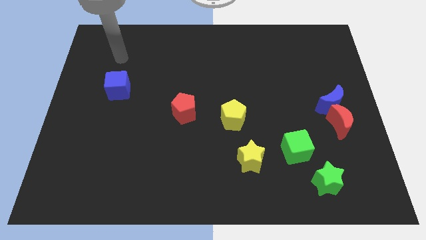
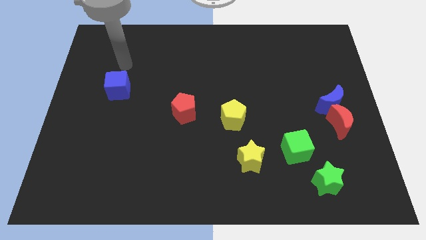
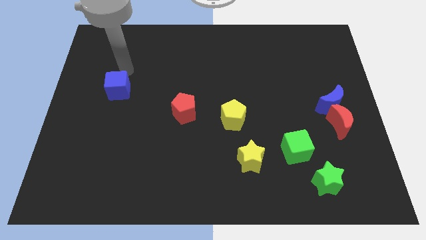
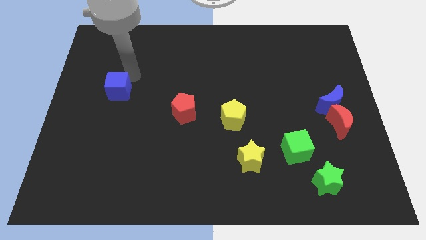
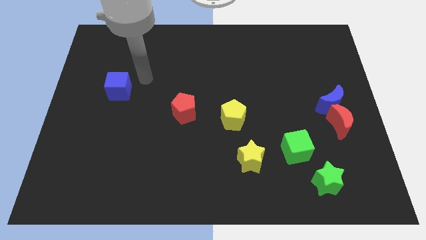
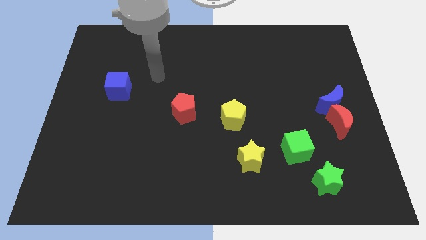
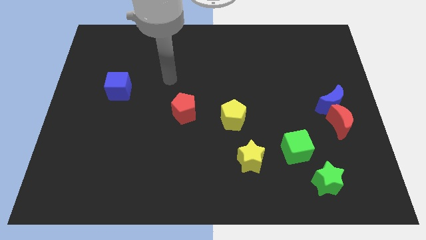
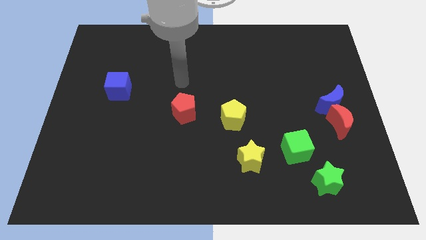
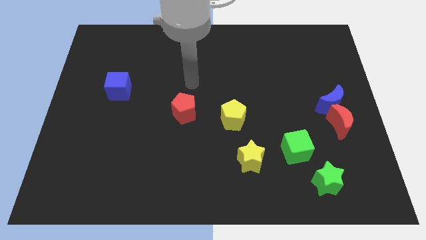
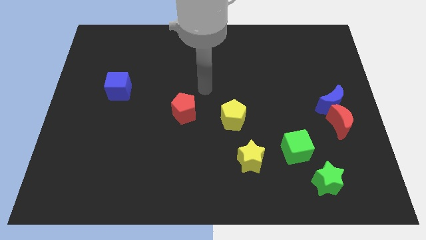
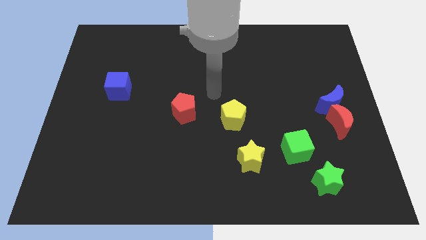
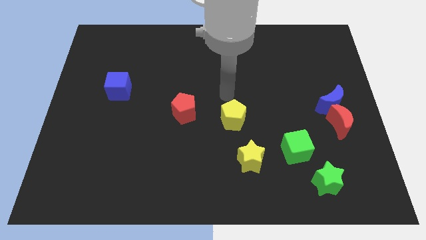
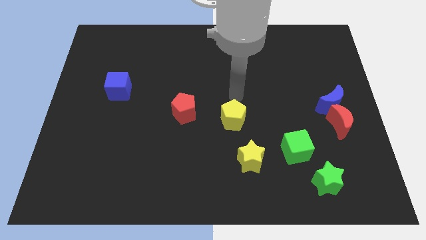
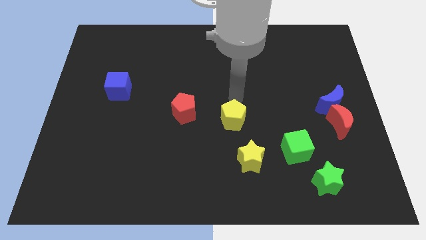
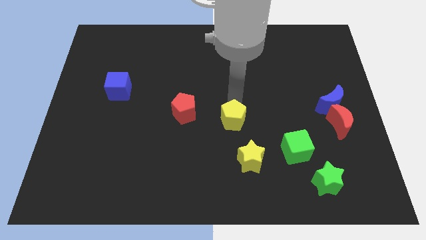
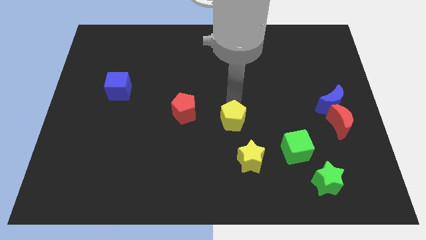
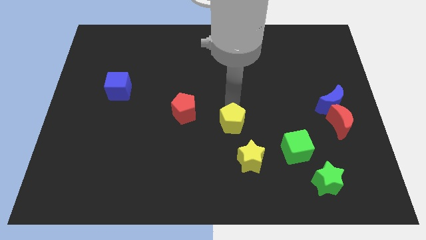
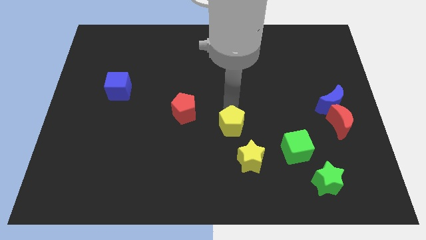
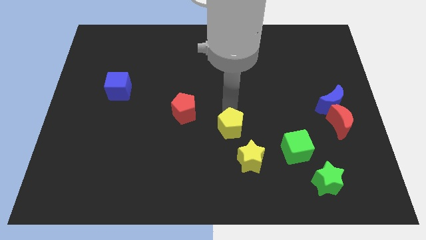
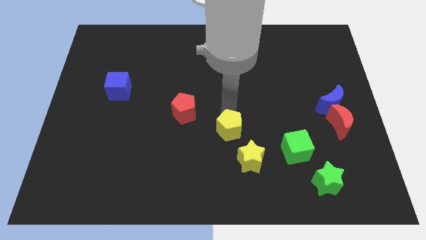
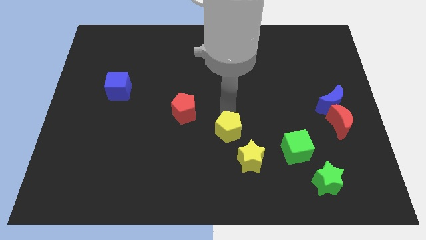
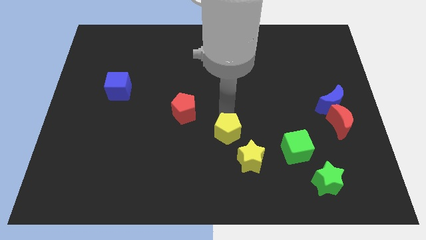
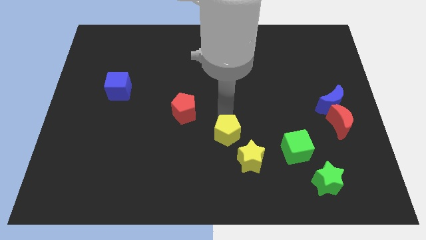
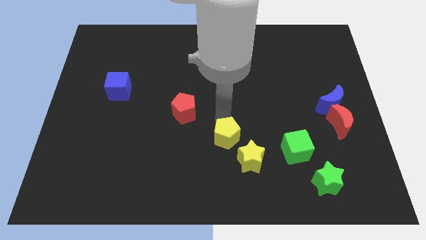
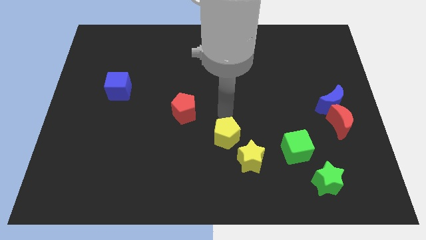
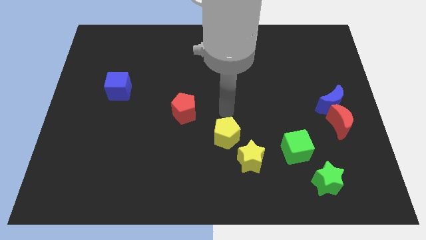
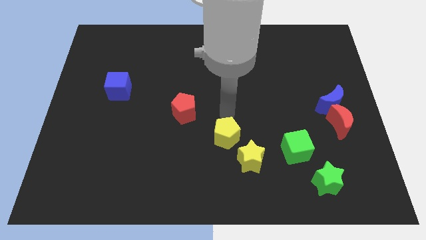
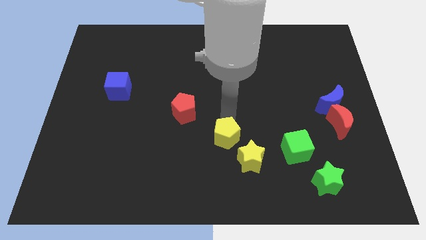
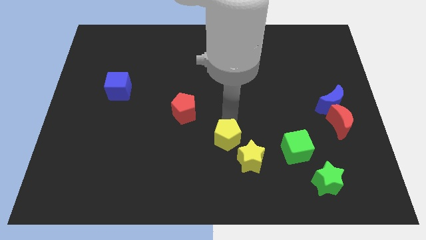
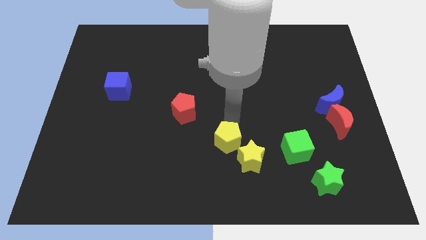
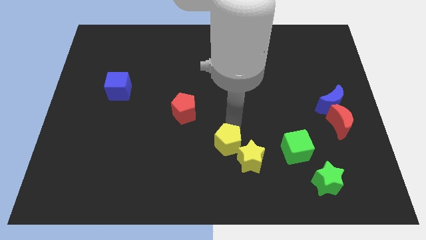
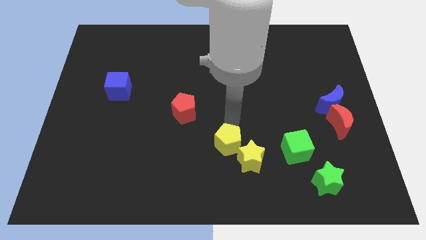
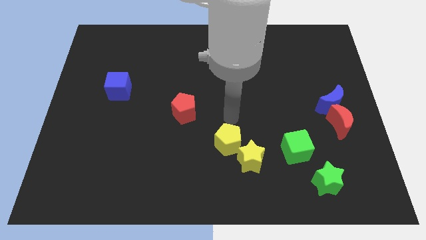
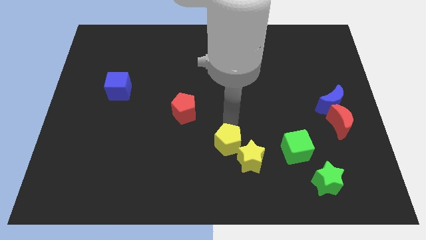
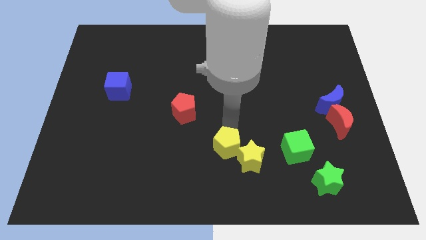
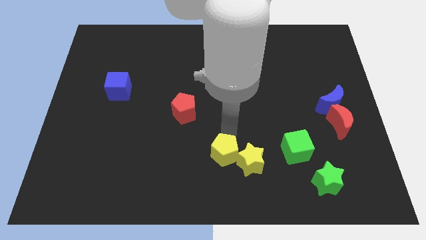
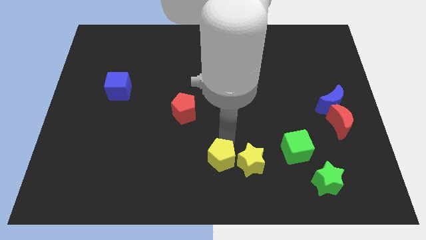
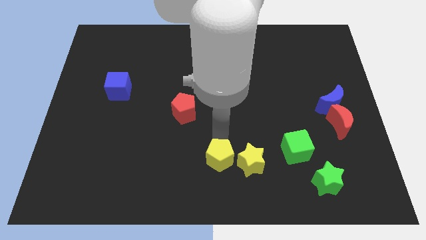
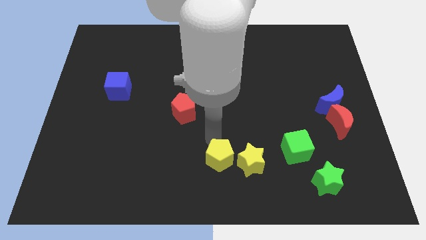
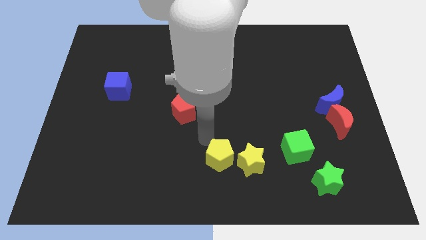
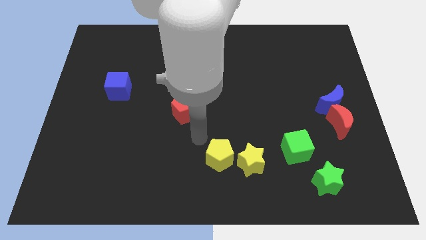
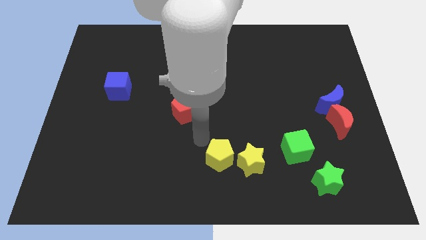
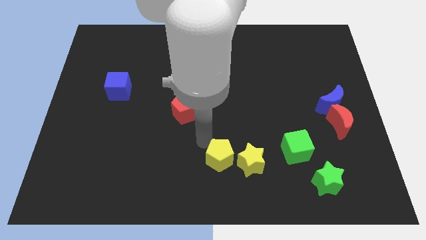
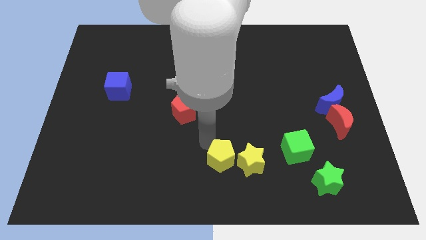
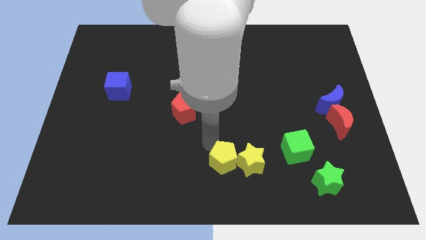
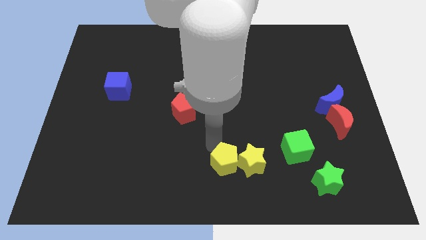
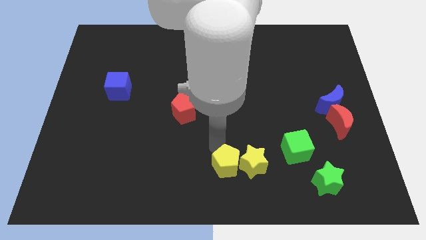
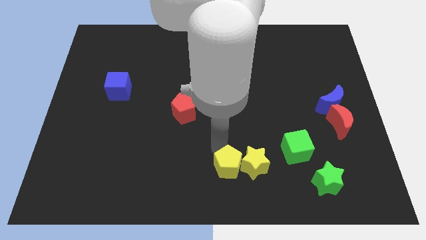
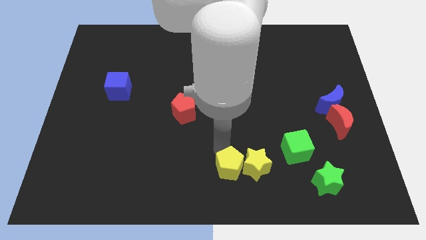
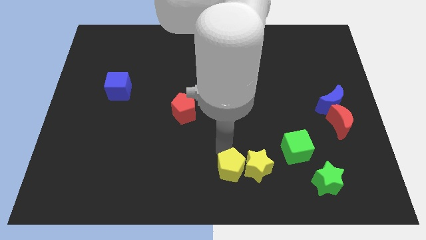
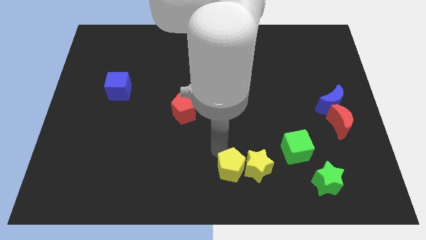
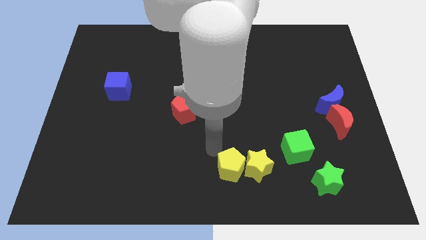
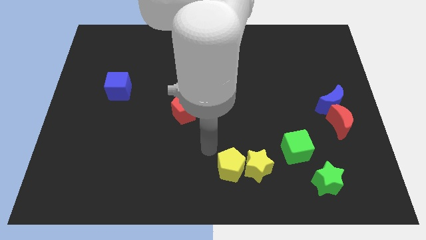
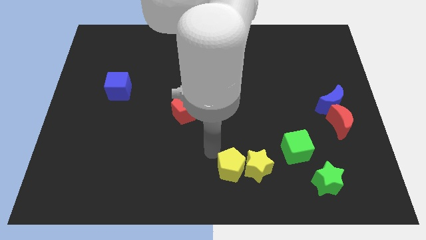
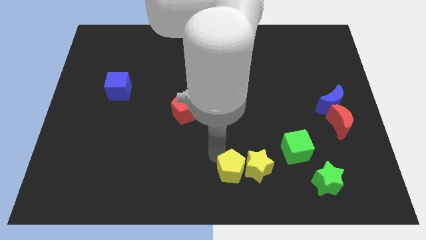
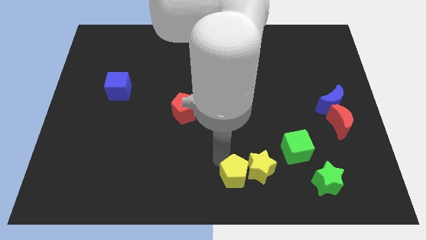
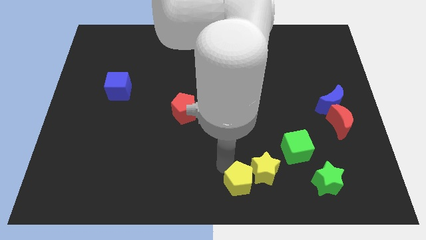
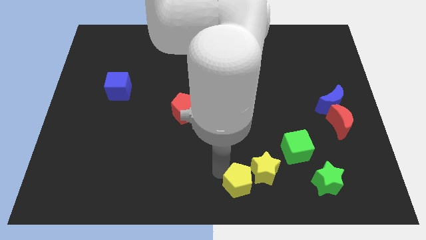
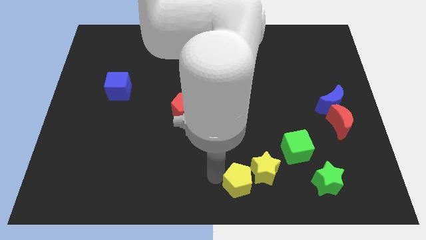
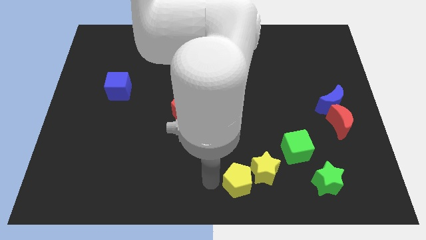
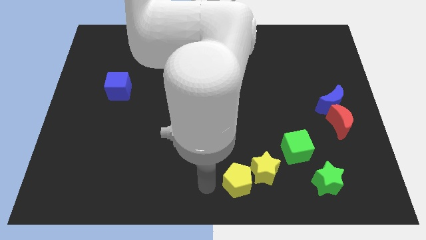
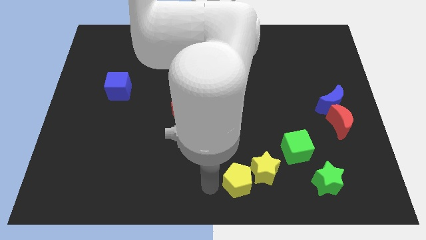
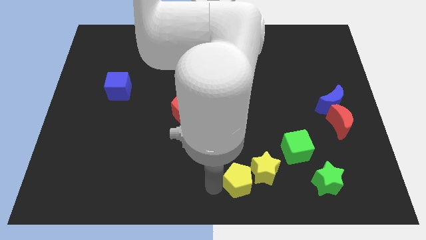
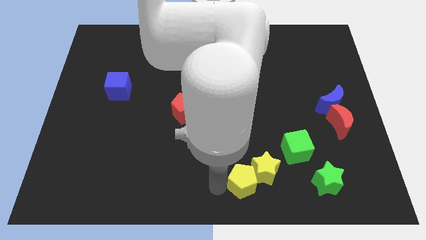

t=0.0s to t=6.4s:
push the yellow pentagon slightly down and then right

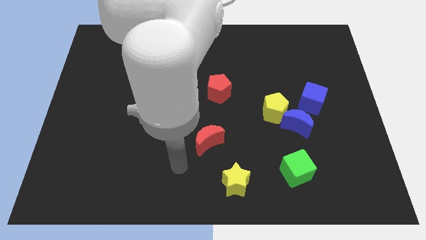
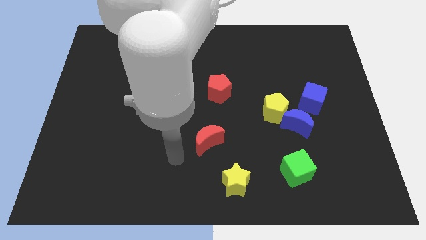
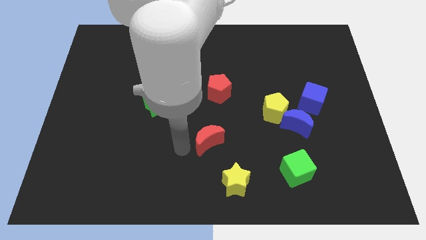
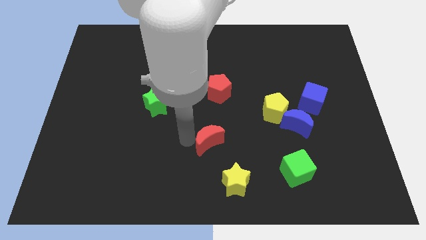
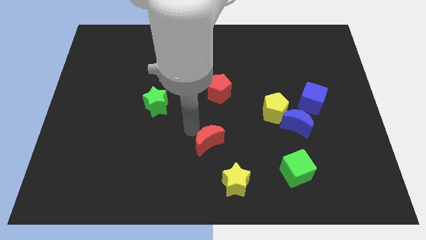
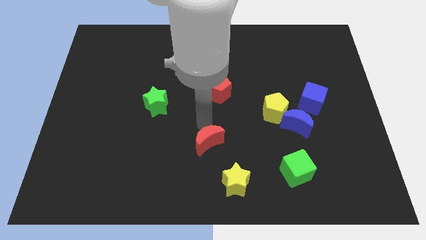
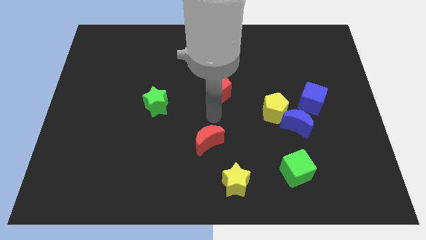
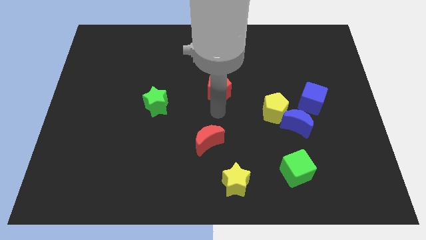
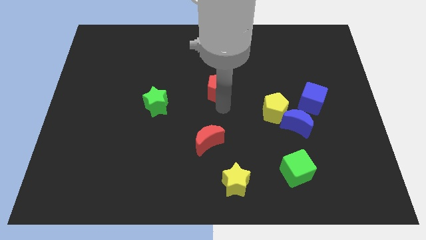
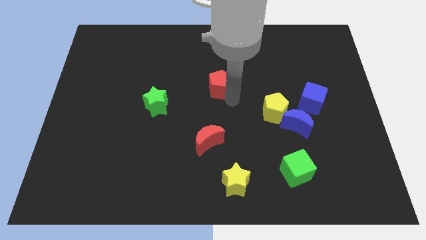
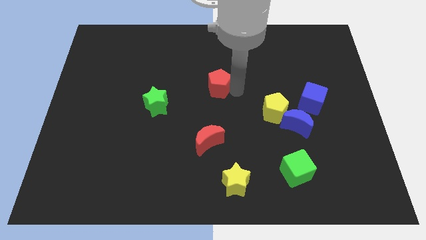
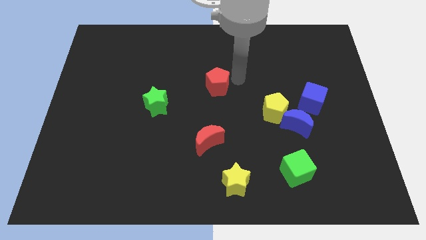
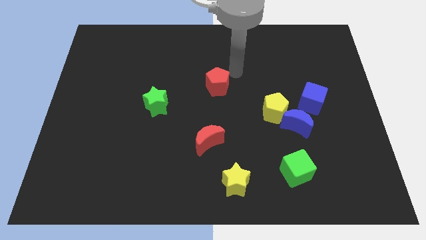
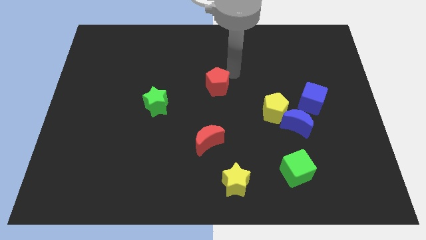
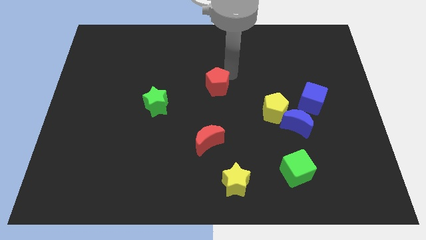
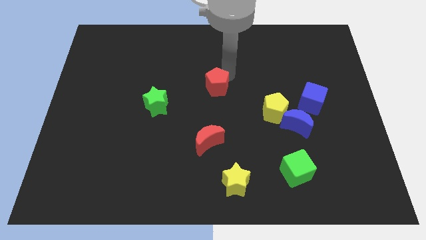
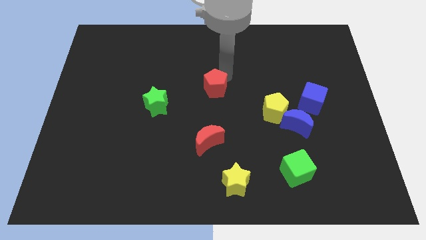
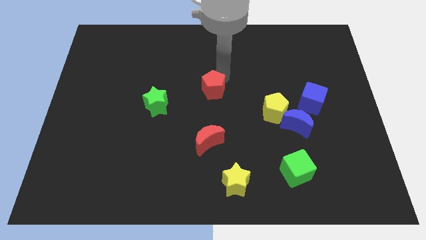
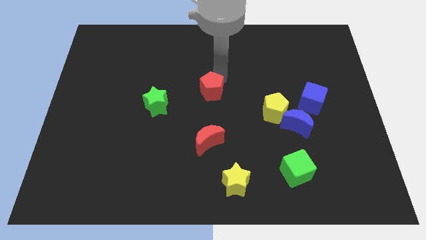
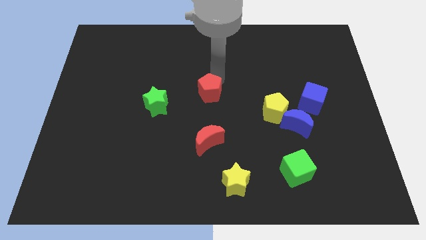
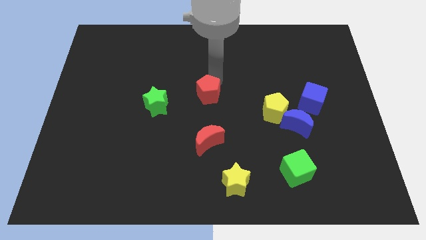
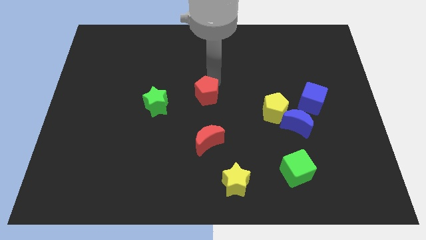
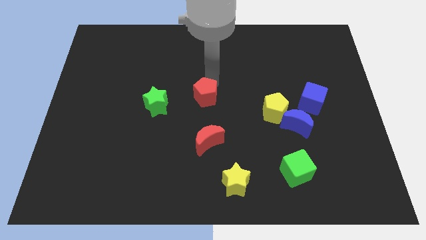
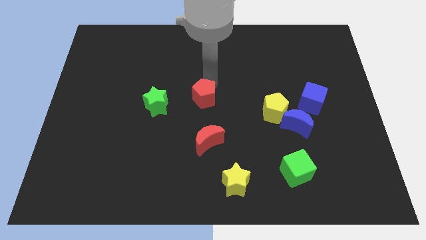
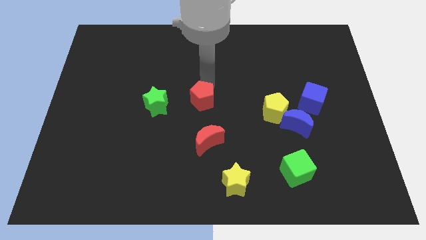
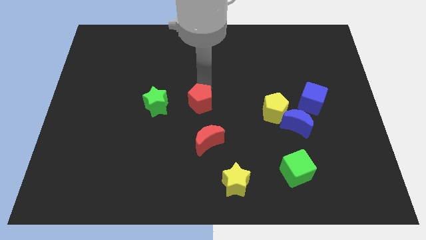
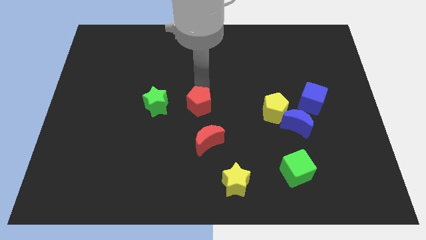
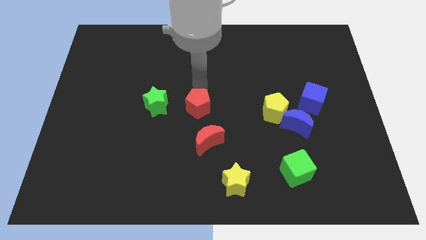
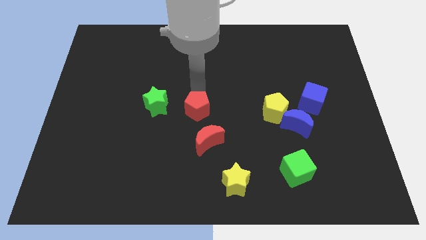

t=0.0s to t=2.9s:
move the red pentagon a little bit down and then to the left
